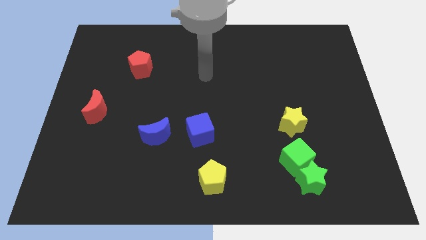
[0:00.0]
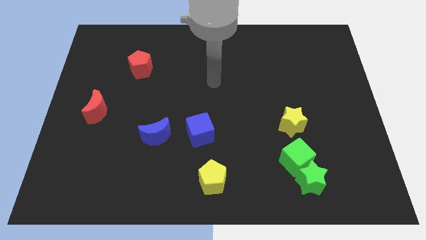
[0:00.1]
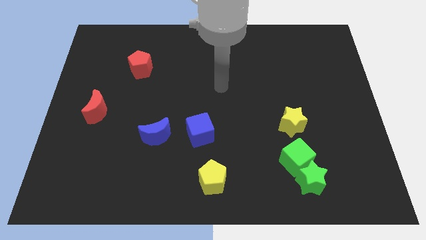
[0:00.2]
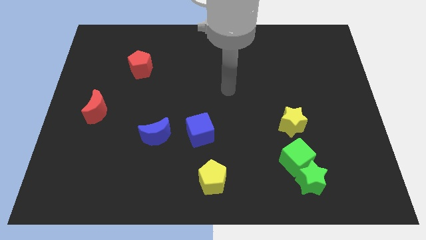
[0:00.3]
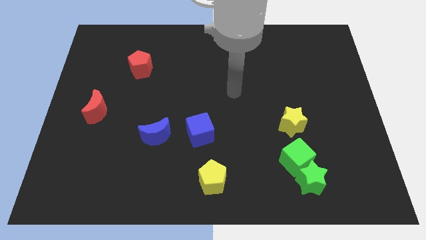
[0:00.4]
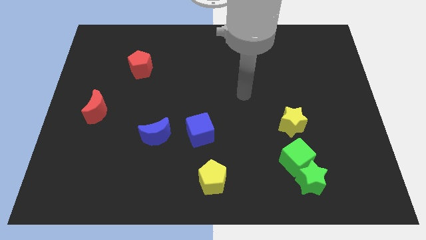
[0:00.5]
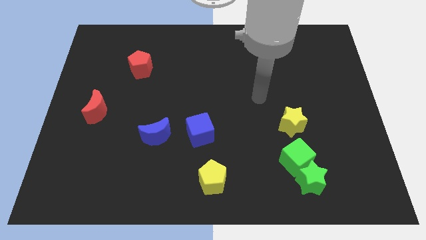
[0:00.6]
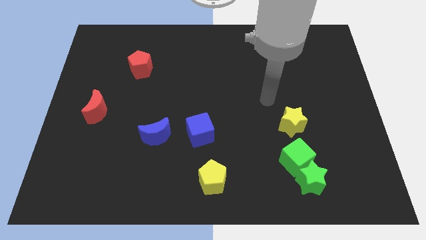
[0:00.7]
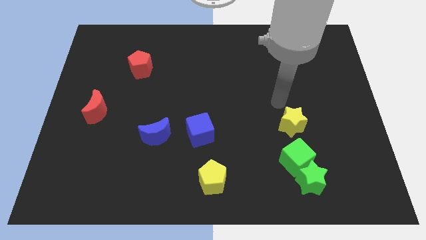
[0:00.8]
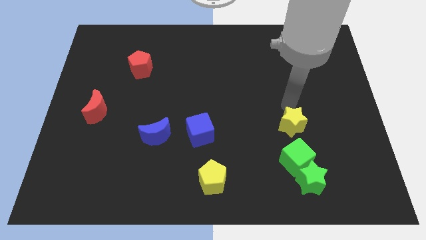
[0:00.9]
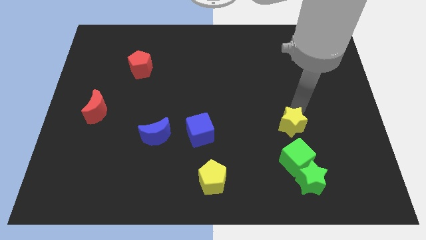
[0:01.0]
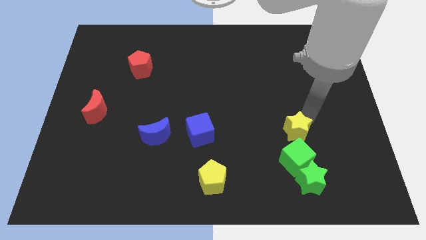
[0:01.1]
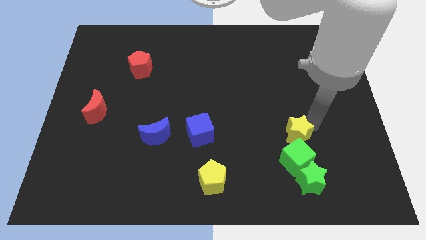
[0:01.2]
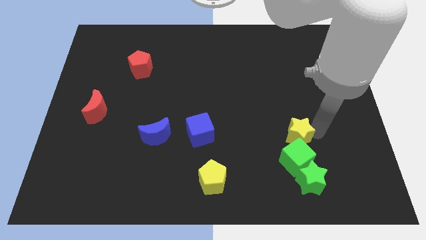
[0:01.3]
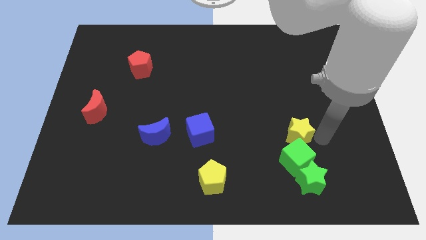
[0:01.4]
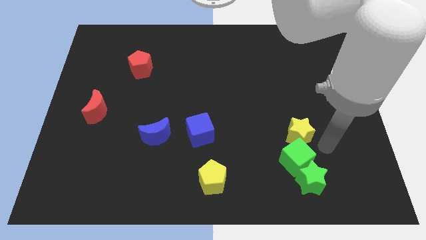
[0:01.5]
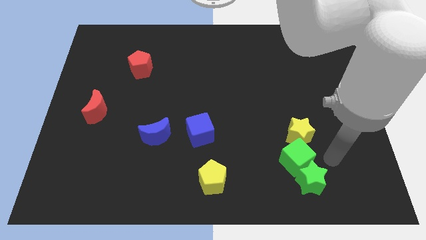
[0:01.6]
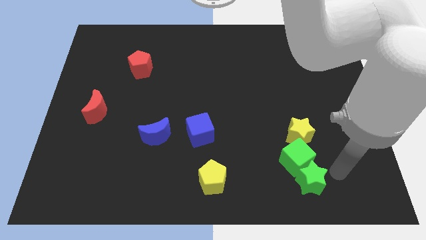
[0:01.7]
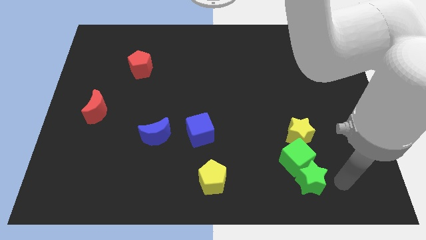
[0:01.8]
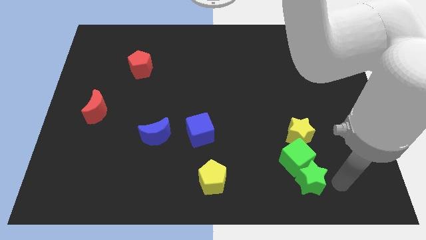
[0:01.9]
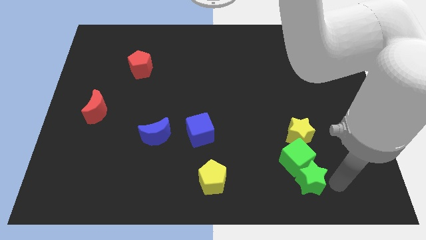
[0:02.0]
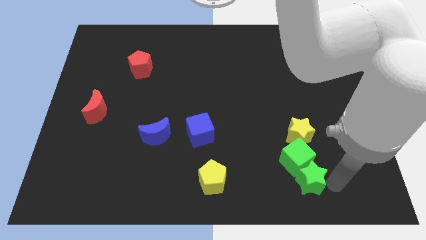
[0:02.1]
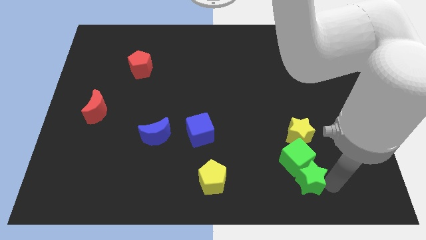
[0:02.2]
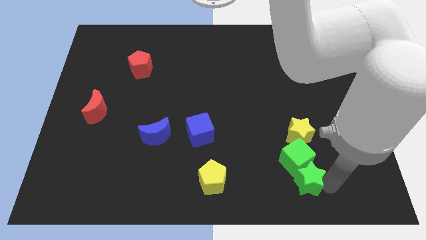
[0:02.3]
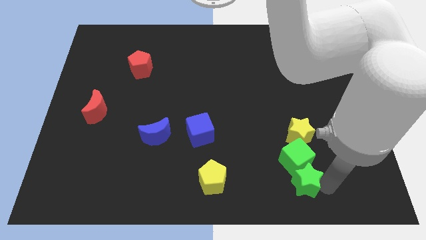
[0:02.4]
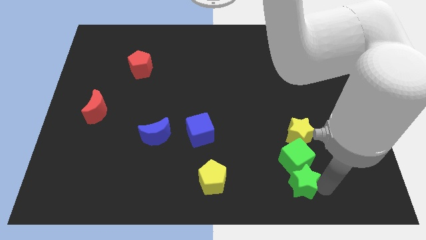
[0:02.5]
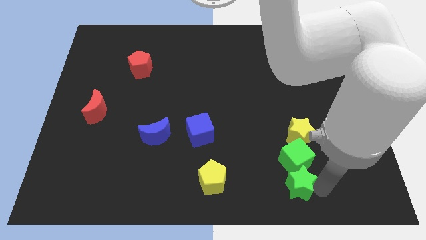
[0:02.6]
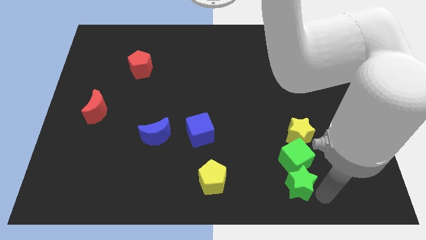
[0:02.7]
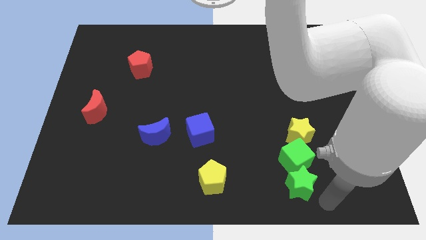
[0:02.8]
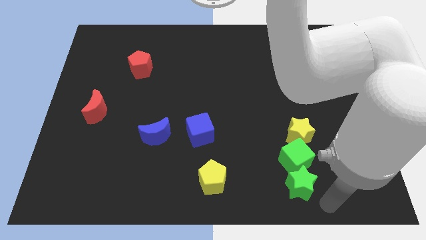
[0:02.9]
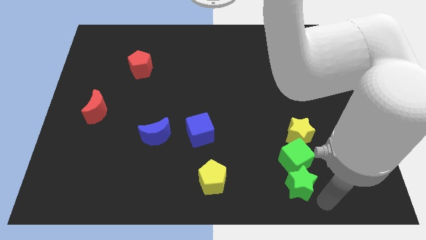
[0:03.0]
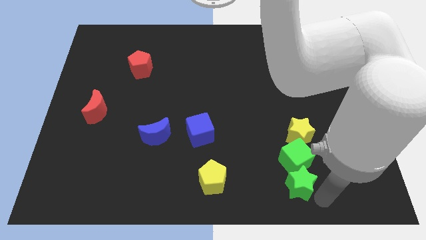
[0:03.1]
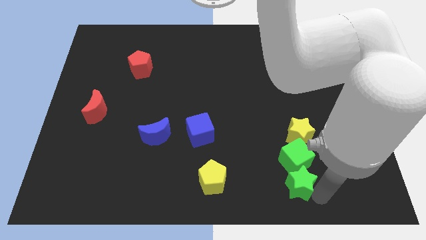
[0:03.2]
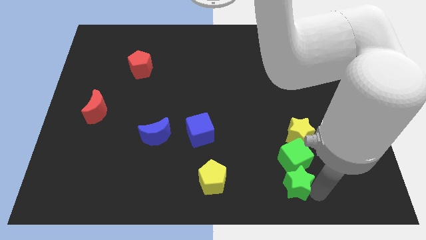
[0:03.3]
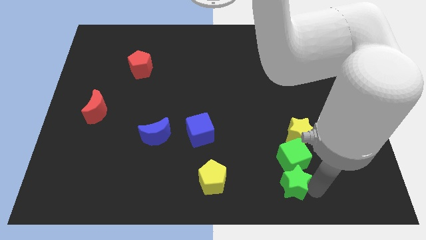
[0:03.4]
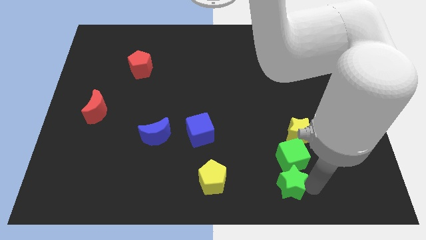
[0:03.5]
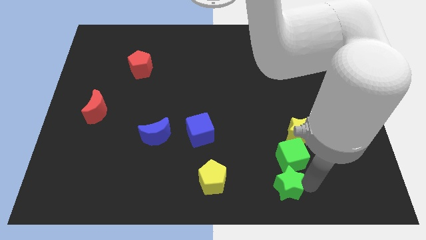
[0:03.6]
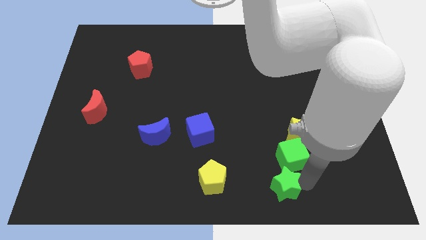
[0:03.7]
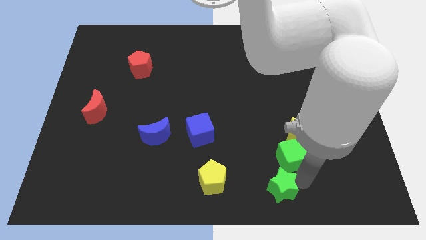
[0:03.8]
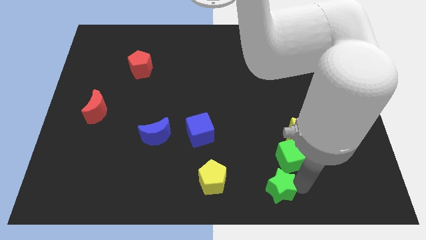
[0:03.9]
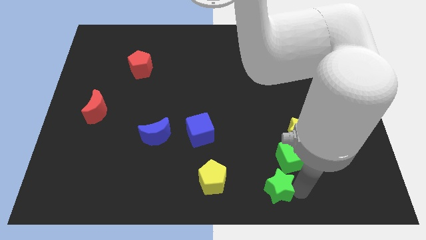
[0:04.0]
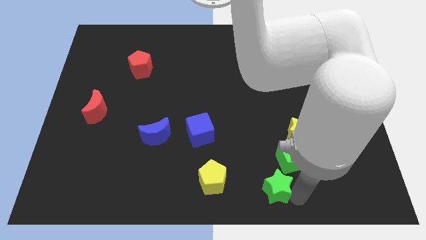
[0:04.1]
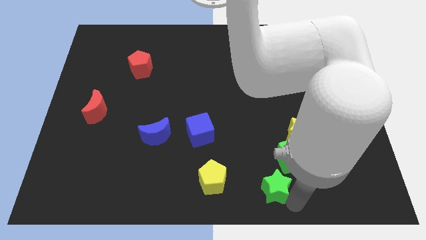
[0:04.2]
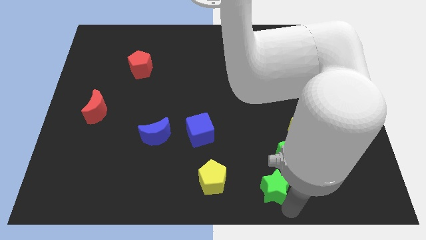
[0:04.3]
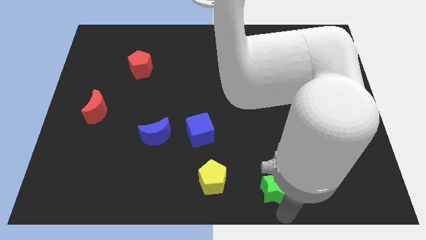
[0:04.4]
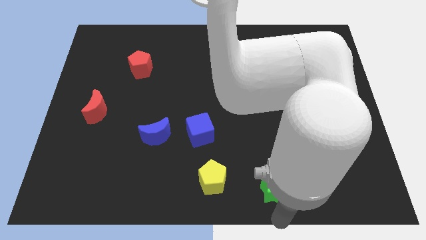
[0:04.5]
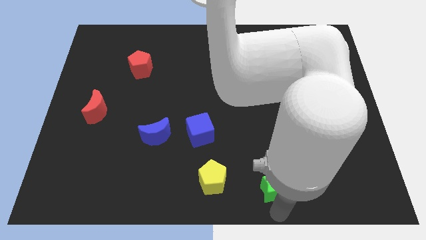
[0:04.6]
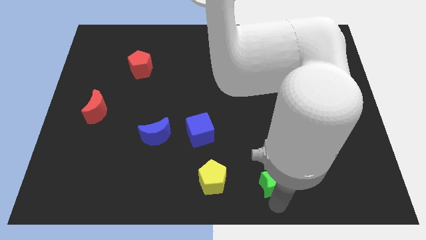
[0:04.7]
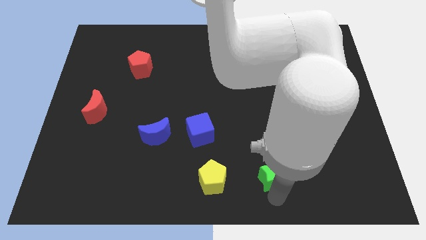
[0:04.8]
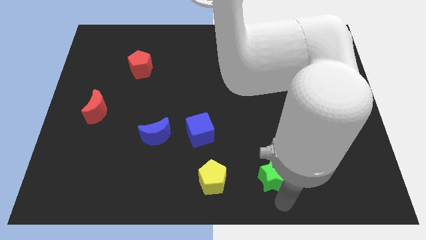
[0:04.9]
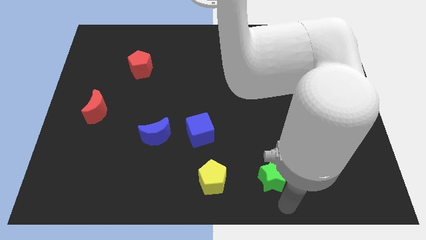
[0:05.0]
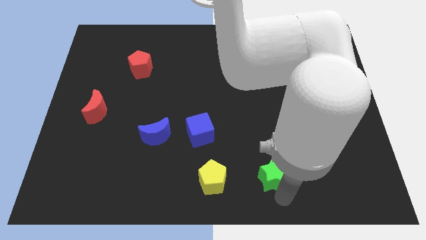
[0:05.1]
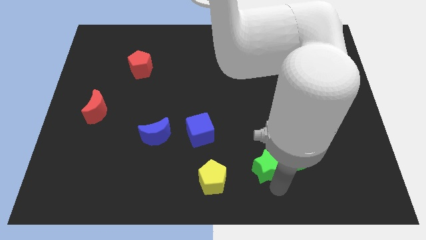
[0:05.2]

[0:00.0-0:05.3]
move the green star somewhat diagonally up and left

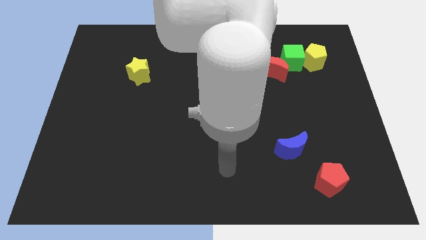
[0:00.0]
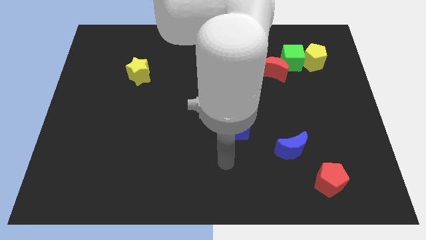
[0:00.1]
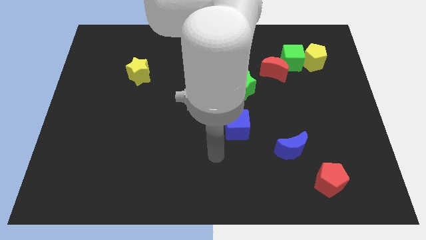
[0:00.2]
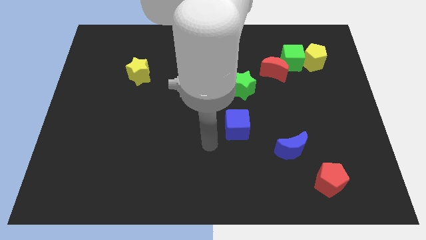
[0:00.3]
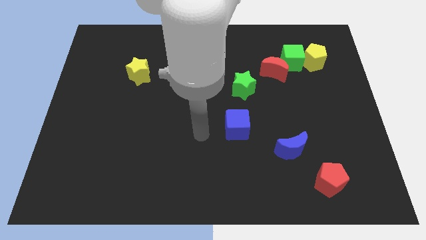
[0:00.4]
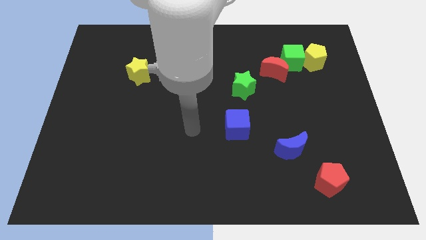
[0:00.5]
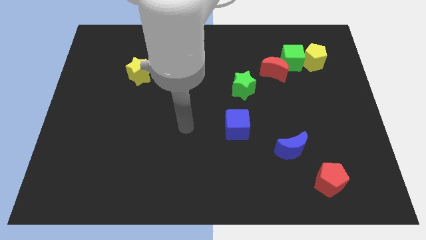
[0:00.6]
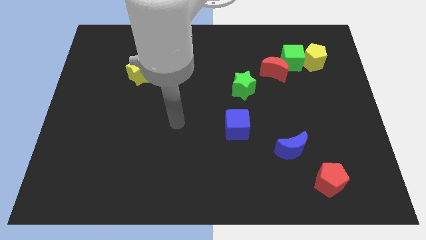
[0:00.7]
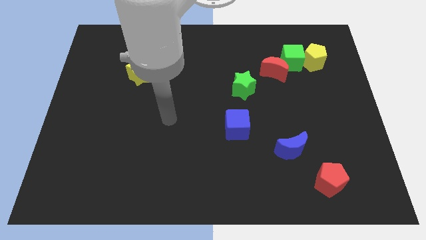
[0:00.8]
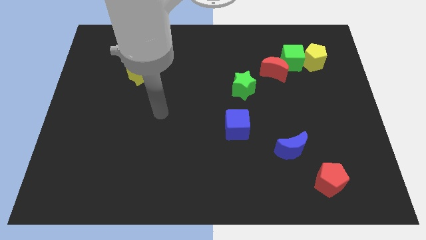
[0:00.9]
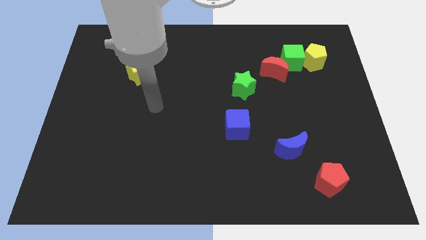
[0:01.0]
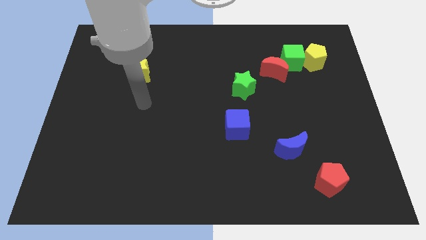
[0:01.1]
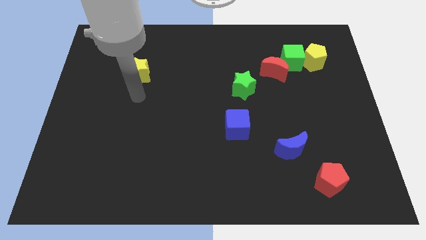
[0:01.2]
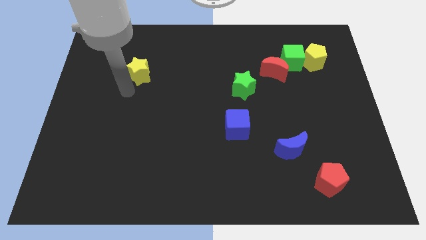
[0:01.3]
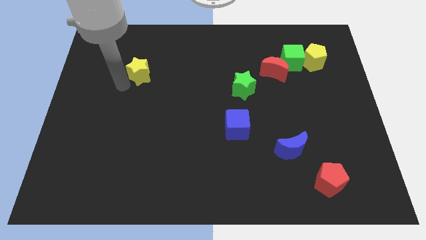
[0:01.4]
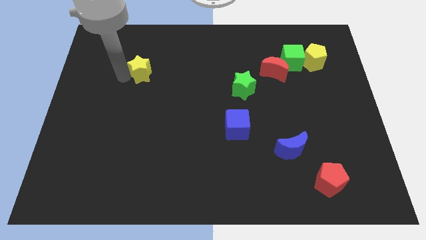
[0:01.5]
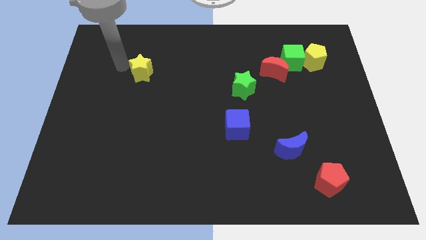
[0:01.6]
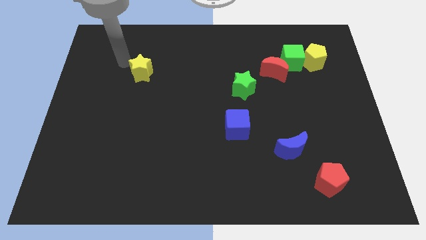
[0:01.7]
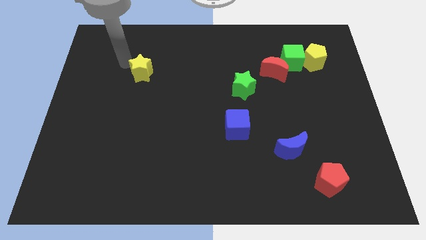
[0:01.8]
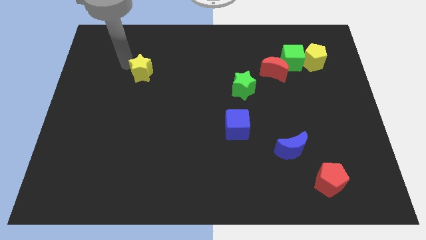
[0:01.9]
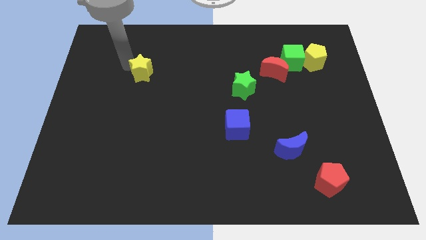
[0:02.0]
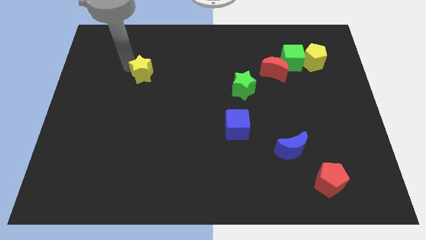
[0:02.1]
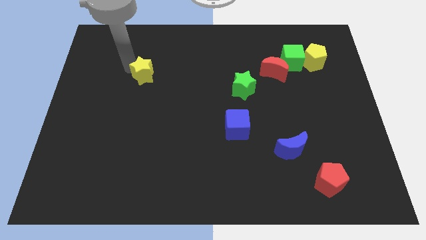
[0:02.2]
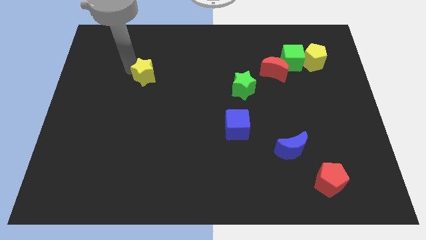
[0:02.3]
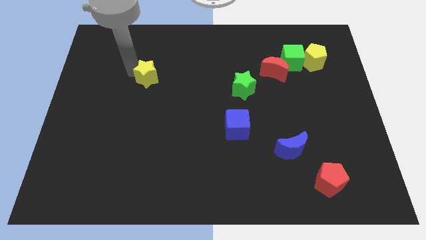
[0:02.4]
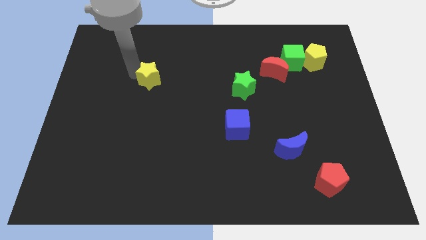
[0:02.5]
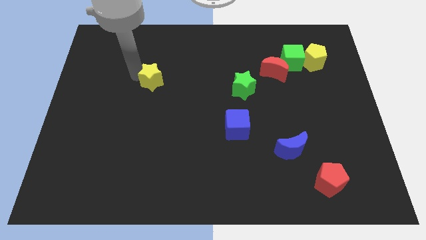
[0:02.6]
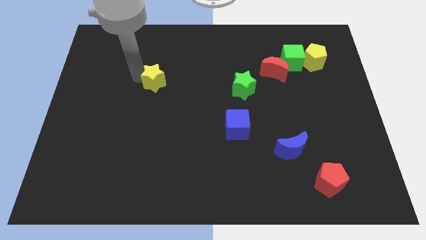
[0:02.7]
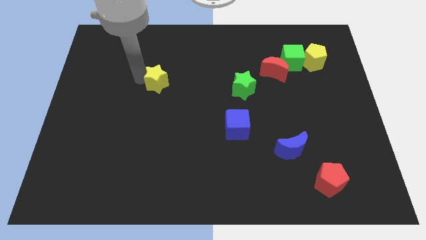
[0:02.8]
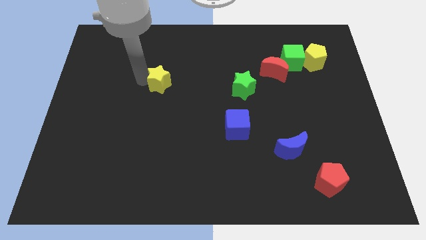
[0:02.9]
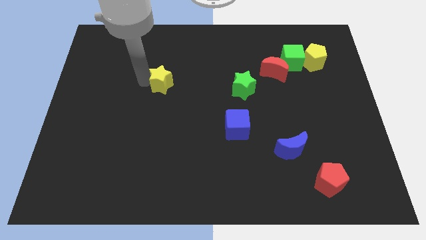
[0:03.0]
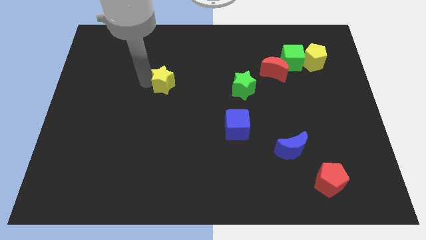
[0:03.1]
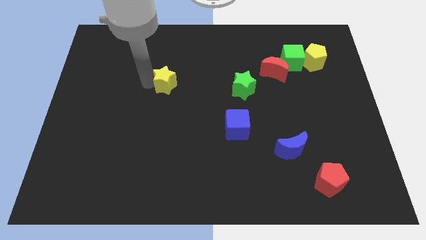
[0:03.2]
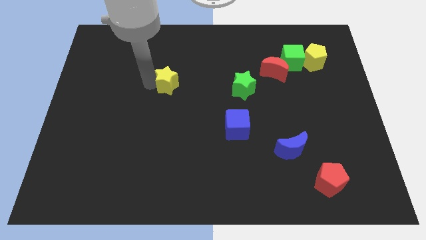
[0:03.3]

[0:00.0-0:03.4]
slightly slide the yellow star right
